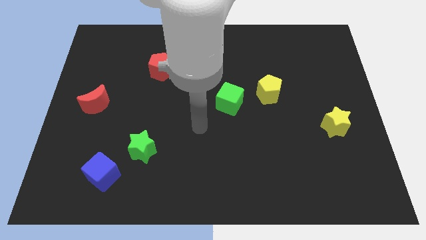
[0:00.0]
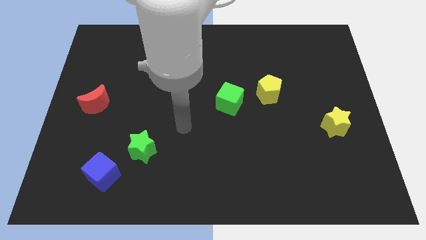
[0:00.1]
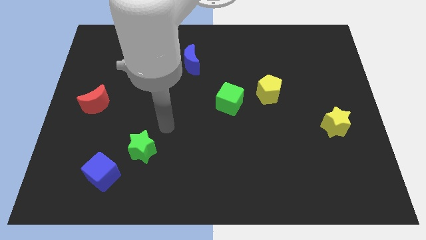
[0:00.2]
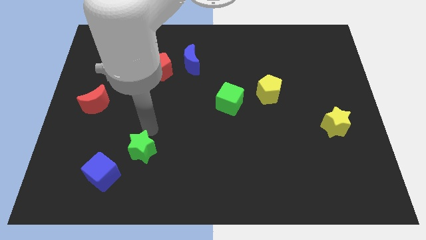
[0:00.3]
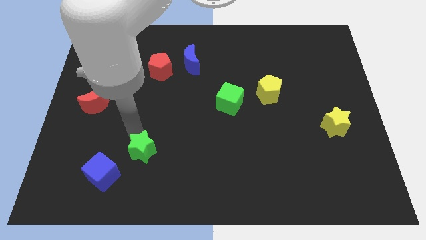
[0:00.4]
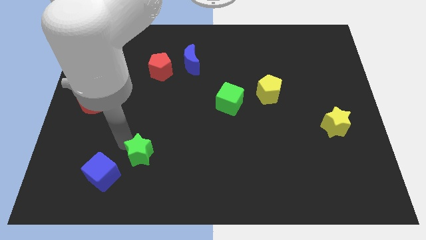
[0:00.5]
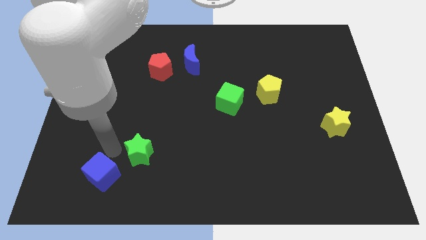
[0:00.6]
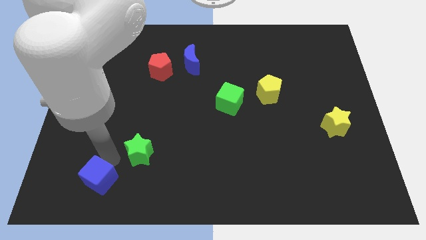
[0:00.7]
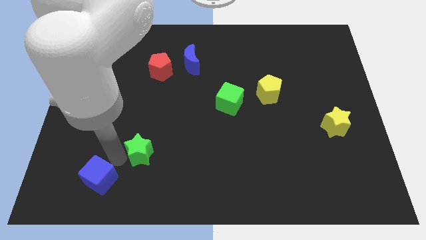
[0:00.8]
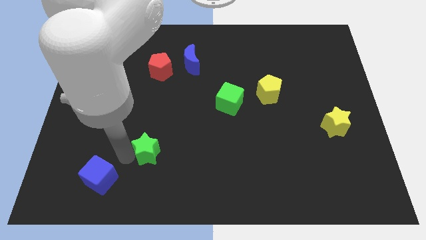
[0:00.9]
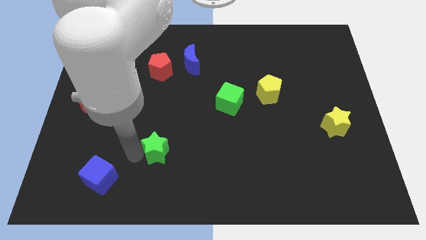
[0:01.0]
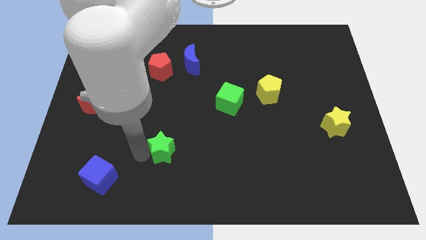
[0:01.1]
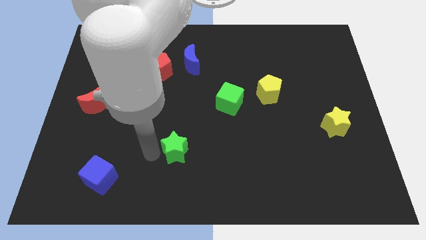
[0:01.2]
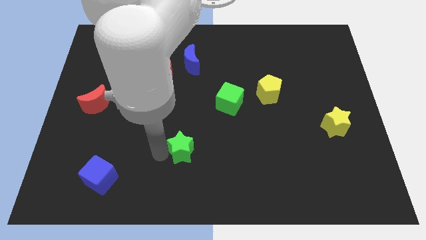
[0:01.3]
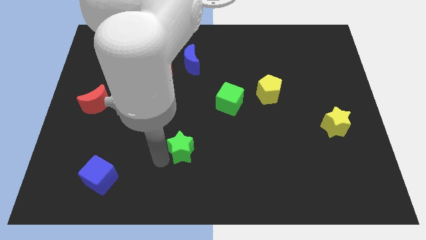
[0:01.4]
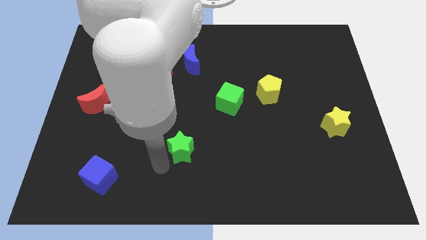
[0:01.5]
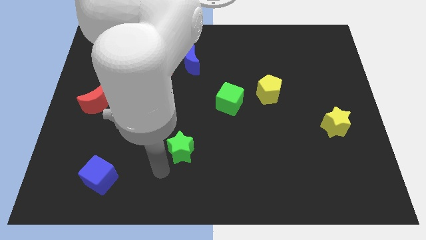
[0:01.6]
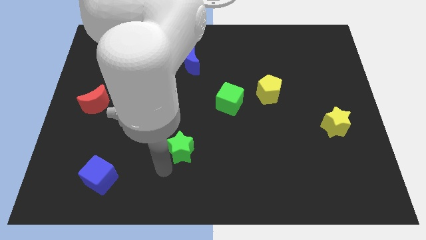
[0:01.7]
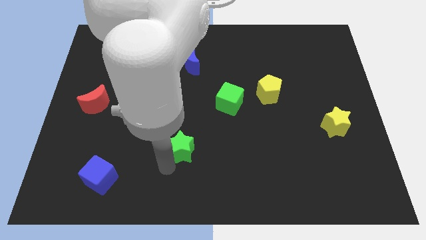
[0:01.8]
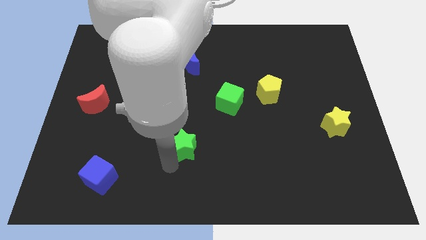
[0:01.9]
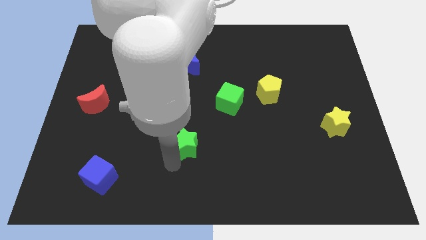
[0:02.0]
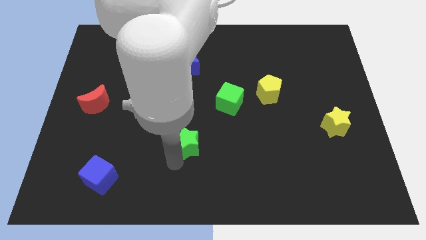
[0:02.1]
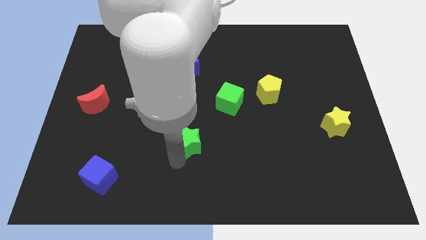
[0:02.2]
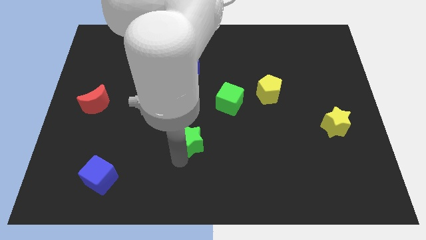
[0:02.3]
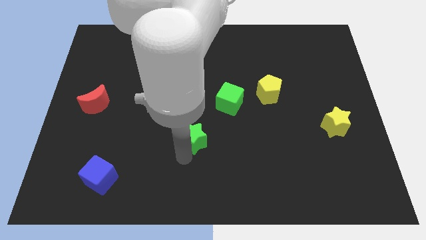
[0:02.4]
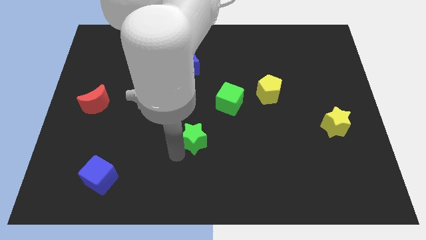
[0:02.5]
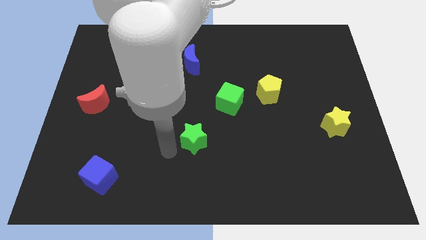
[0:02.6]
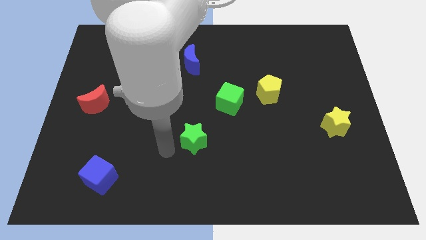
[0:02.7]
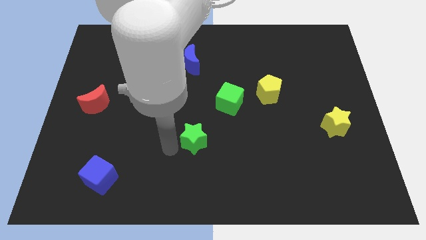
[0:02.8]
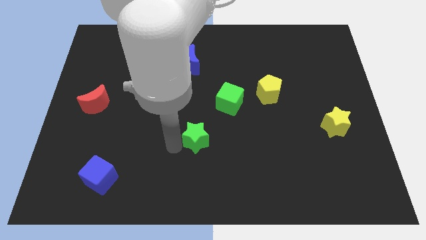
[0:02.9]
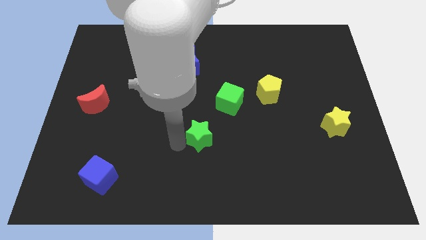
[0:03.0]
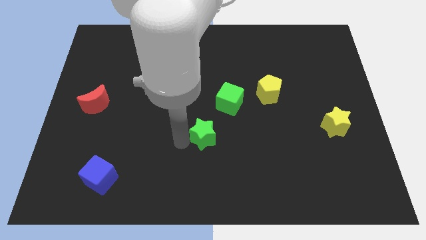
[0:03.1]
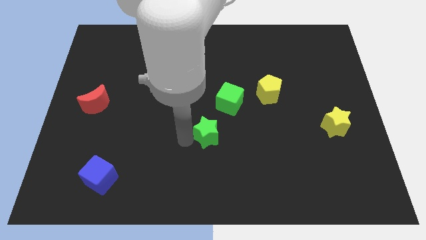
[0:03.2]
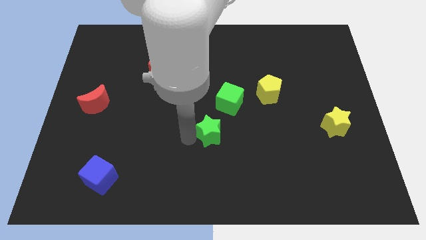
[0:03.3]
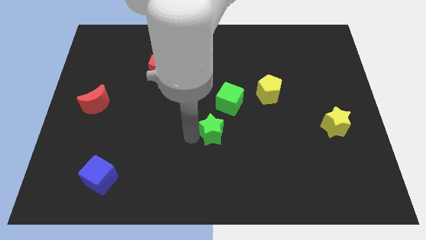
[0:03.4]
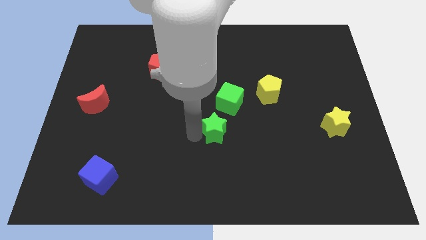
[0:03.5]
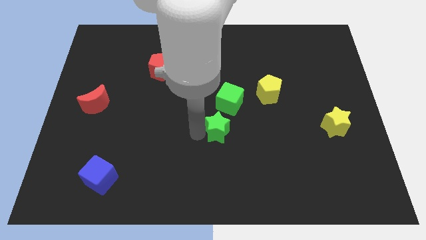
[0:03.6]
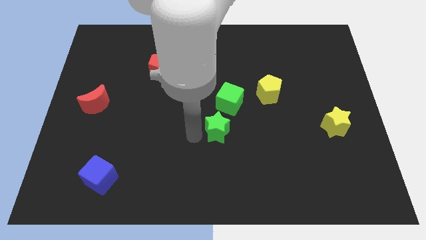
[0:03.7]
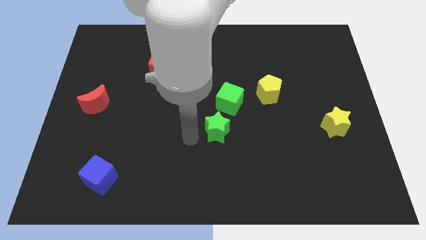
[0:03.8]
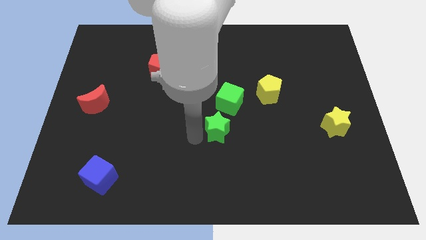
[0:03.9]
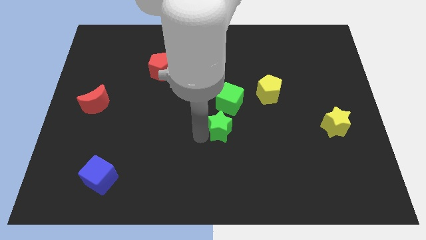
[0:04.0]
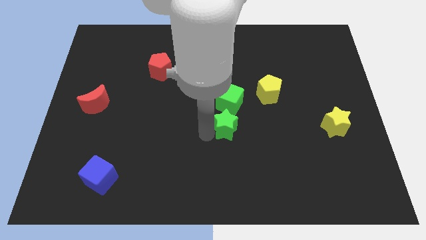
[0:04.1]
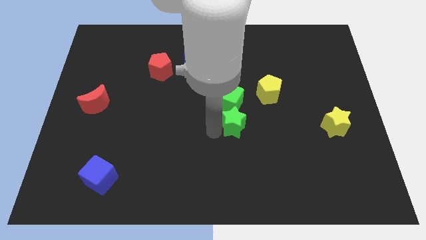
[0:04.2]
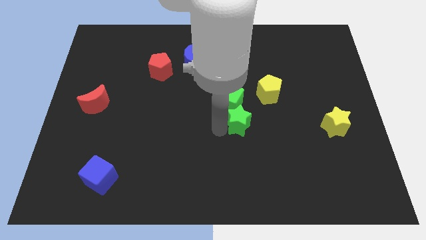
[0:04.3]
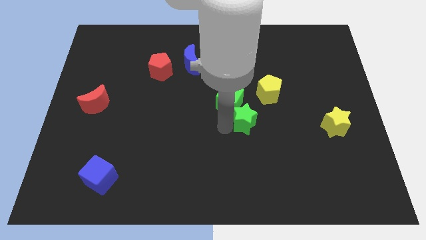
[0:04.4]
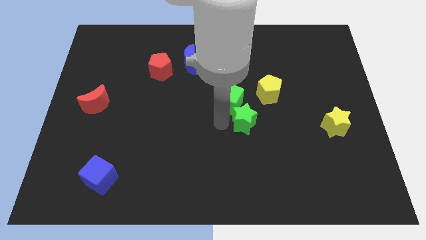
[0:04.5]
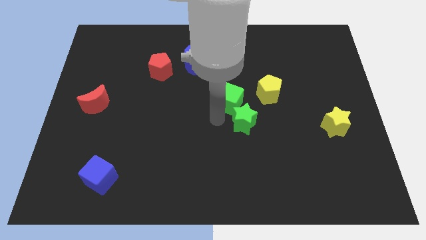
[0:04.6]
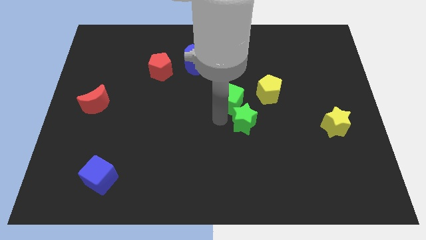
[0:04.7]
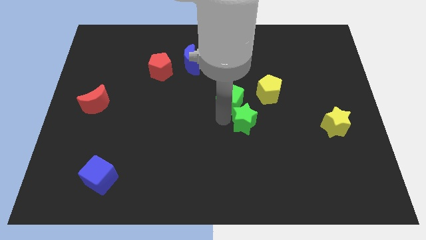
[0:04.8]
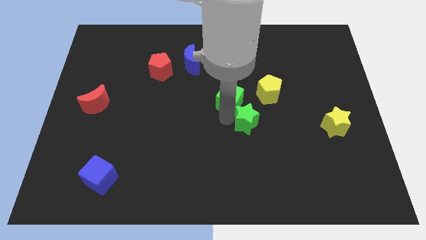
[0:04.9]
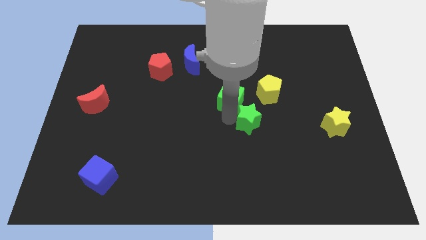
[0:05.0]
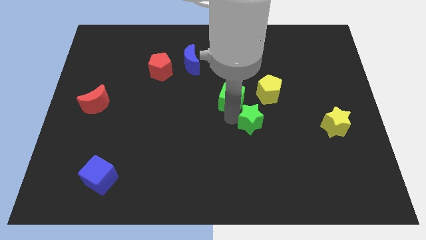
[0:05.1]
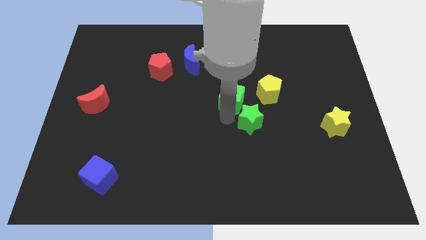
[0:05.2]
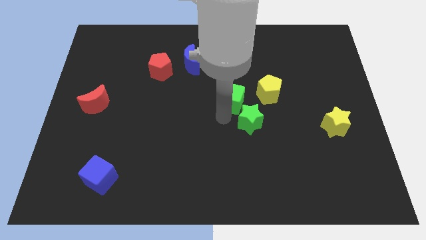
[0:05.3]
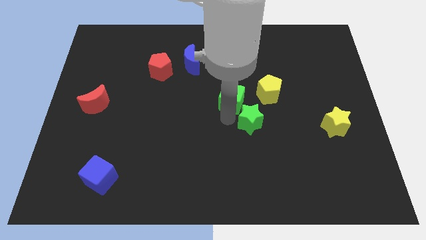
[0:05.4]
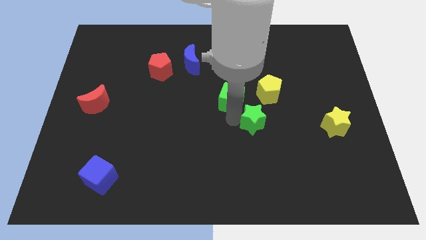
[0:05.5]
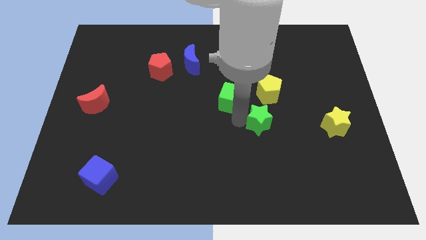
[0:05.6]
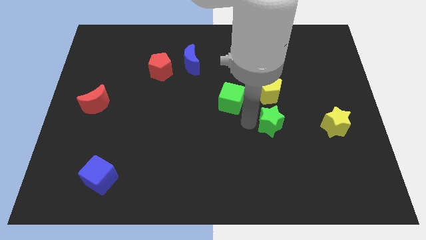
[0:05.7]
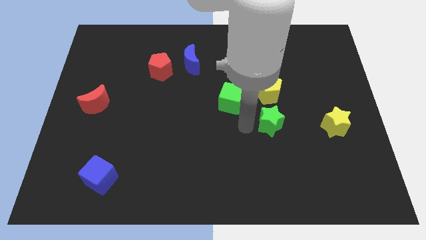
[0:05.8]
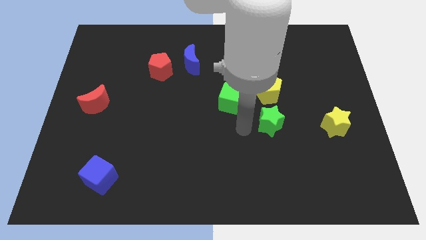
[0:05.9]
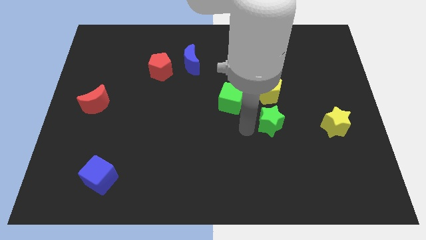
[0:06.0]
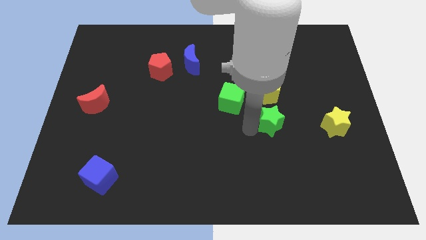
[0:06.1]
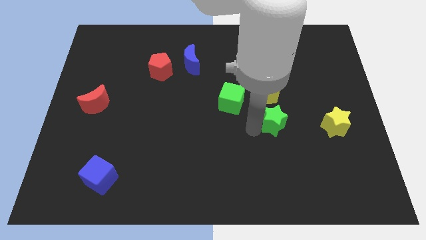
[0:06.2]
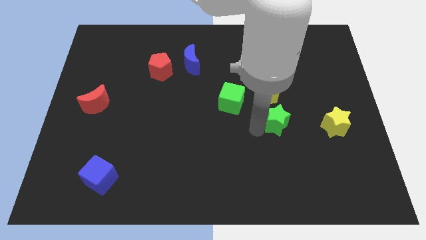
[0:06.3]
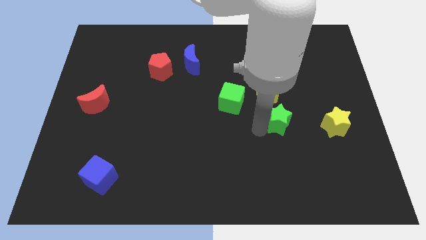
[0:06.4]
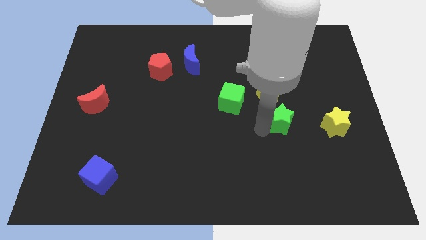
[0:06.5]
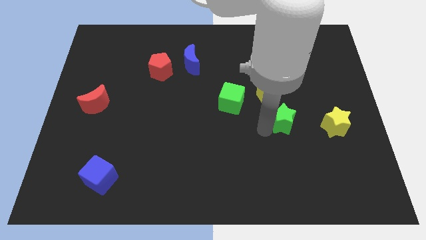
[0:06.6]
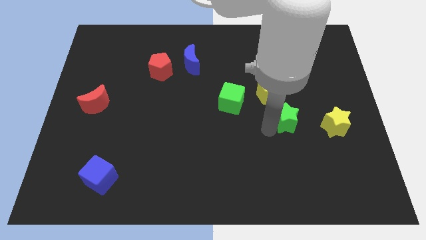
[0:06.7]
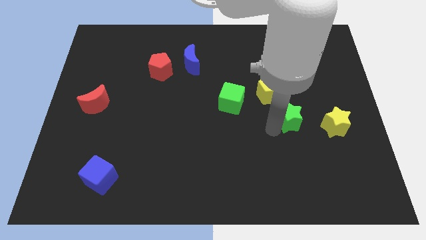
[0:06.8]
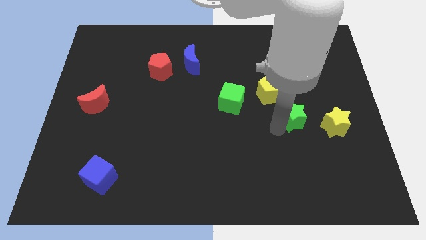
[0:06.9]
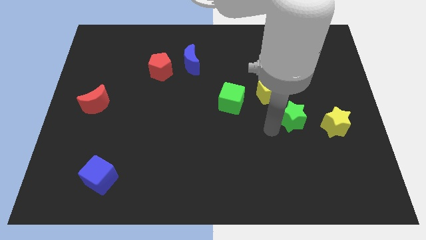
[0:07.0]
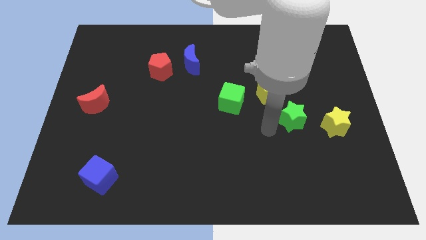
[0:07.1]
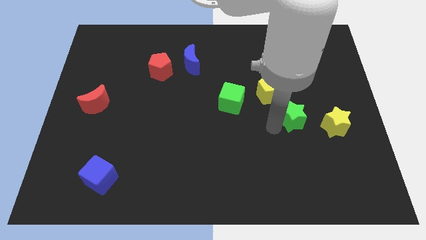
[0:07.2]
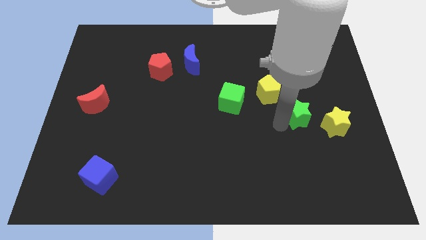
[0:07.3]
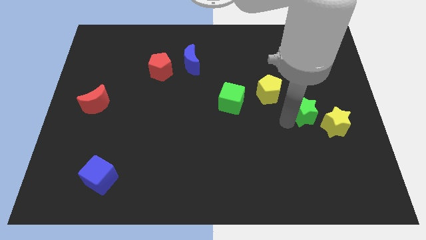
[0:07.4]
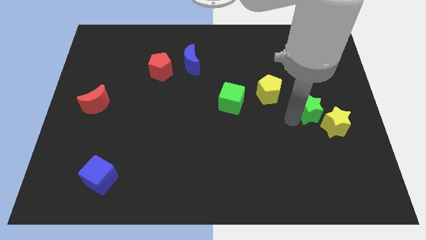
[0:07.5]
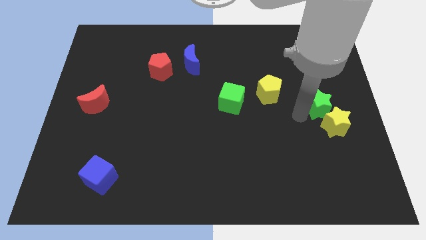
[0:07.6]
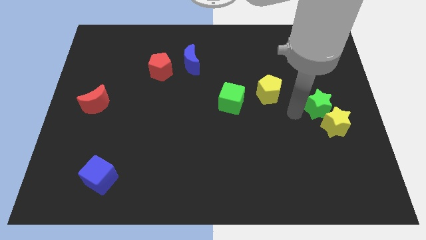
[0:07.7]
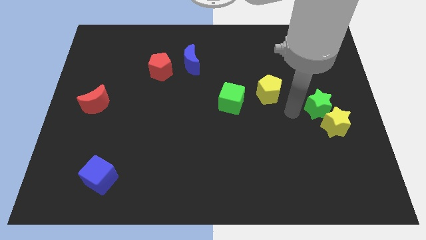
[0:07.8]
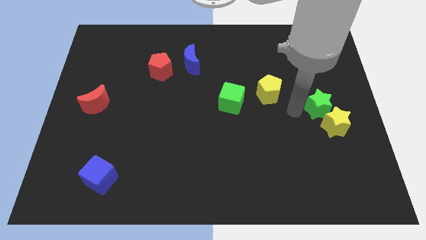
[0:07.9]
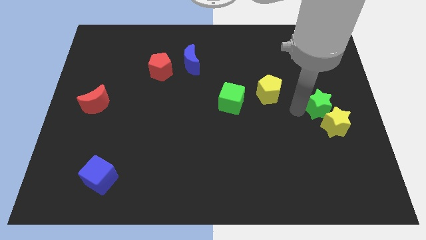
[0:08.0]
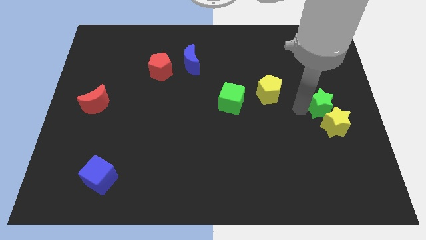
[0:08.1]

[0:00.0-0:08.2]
move the green star to the right side
